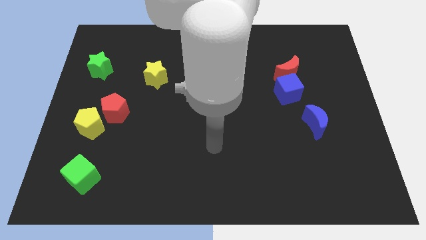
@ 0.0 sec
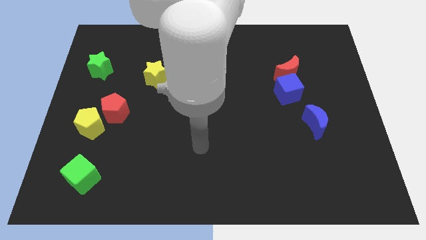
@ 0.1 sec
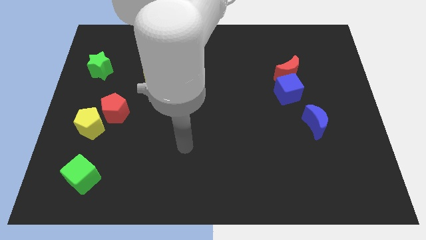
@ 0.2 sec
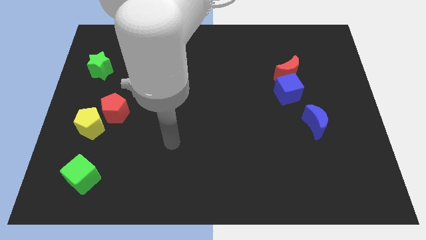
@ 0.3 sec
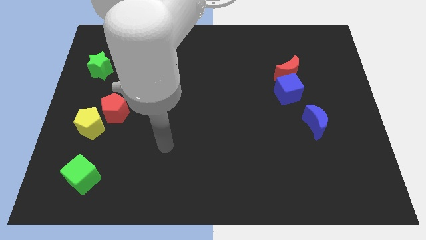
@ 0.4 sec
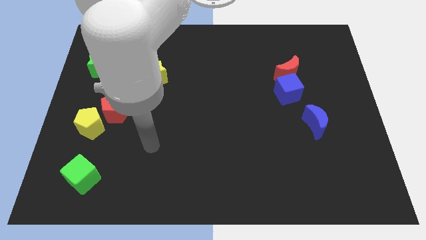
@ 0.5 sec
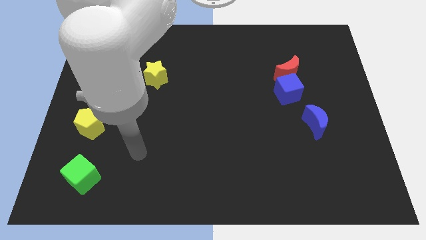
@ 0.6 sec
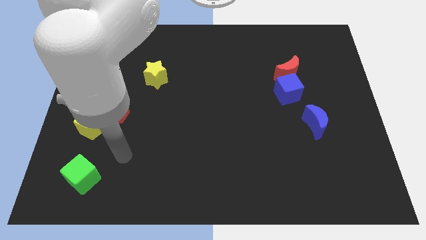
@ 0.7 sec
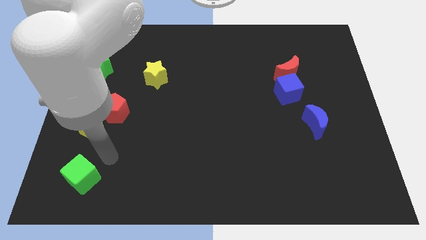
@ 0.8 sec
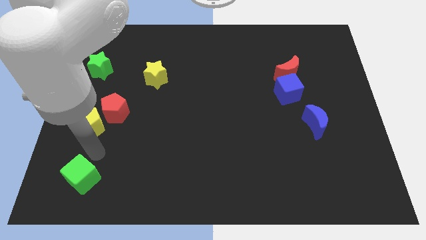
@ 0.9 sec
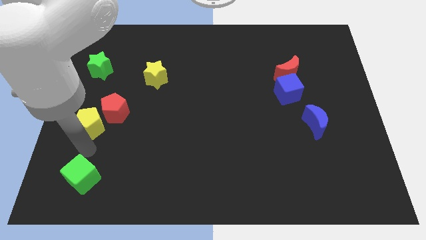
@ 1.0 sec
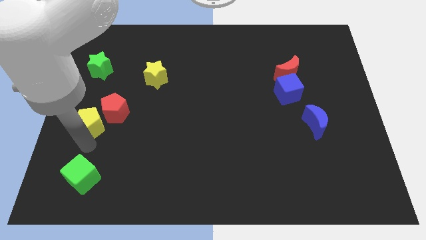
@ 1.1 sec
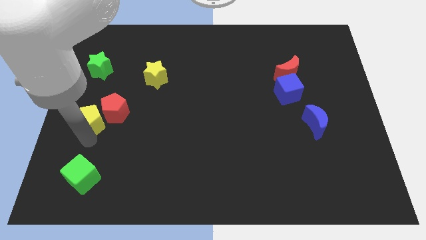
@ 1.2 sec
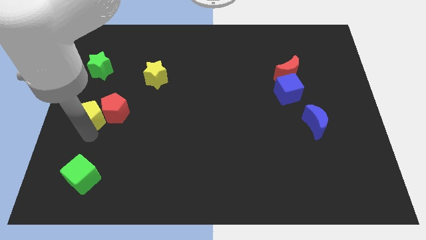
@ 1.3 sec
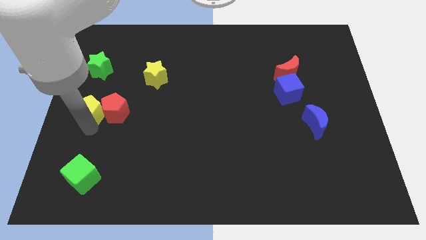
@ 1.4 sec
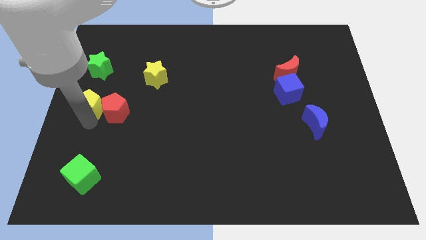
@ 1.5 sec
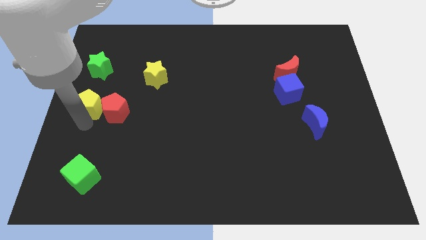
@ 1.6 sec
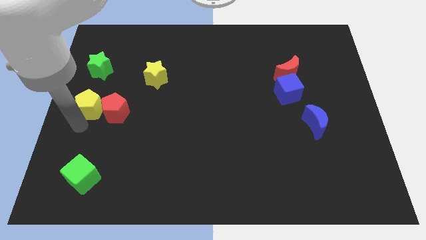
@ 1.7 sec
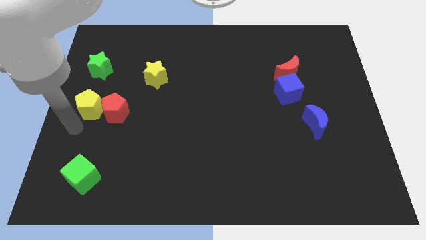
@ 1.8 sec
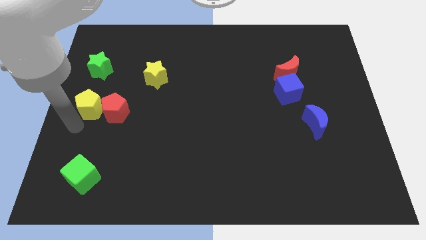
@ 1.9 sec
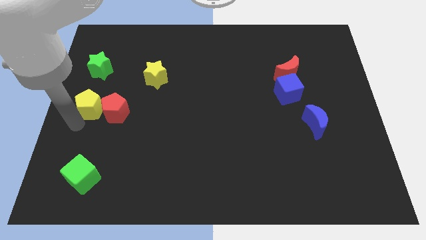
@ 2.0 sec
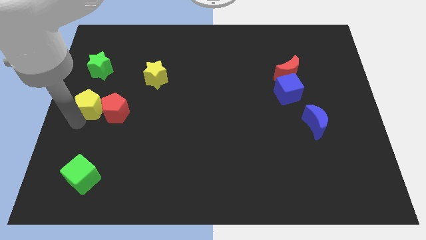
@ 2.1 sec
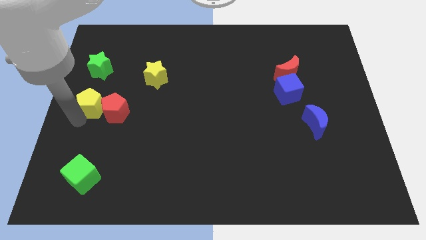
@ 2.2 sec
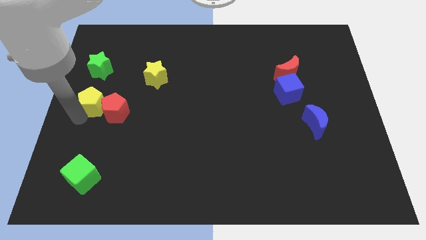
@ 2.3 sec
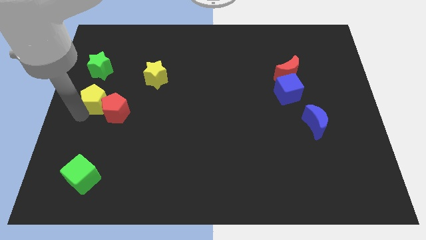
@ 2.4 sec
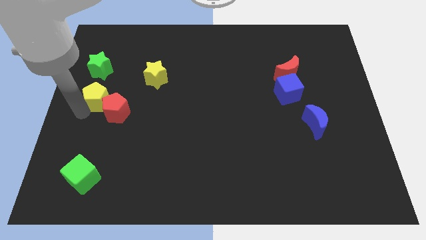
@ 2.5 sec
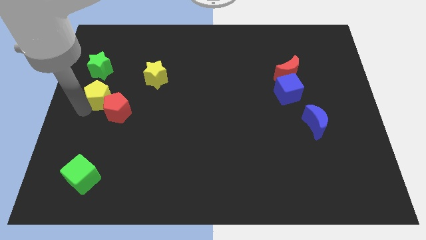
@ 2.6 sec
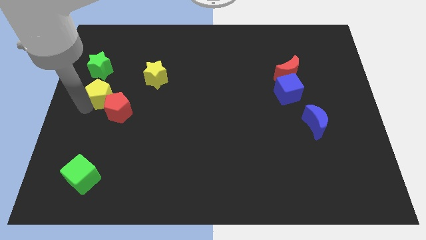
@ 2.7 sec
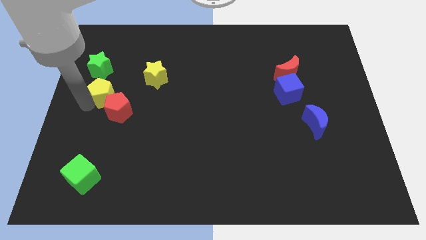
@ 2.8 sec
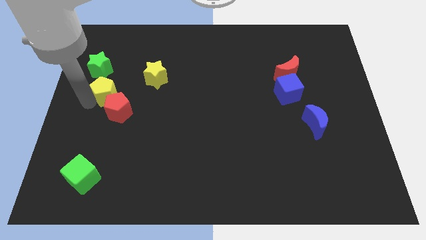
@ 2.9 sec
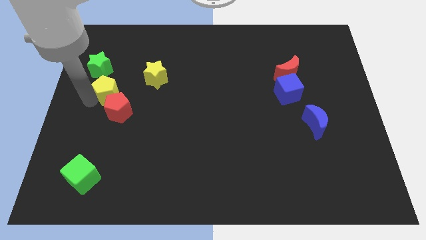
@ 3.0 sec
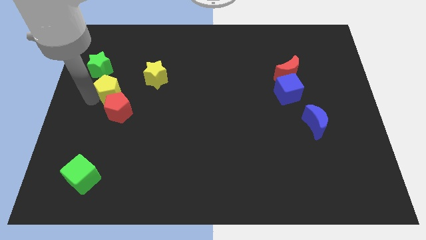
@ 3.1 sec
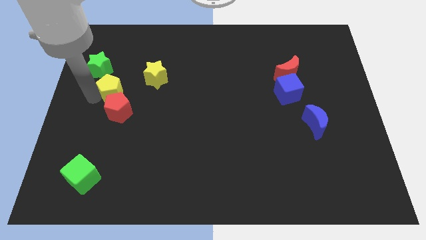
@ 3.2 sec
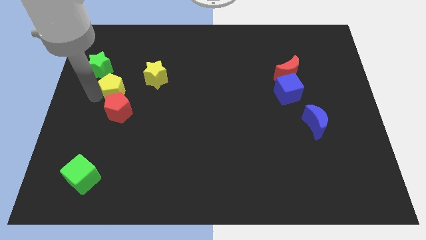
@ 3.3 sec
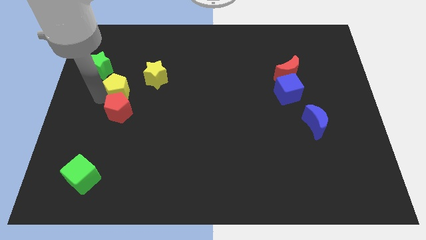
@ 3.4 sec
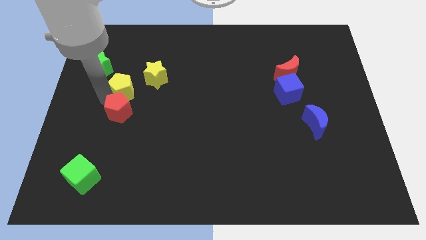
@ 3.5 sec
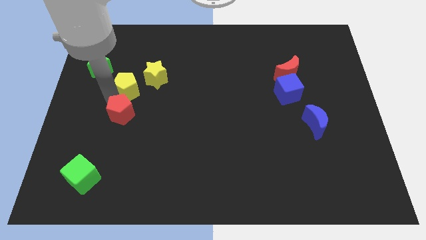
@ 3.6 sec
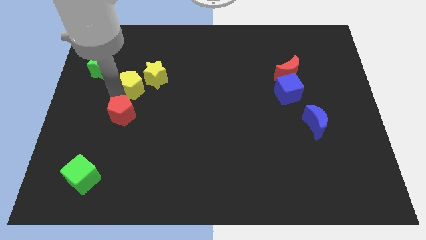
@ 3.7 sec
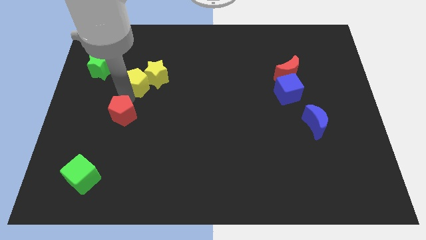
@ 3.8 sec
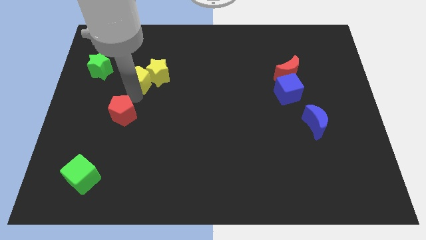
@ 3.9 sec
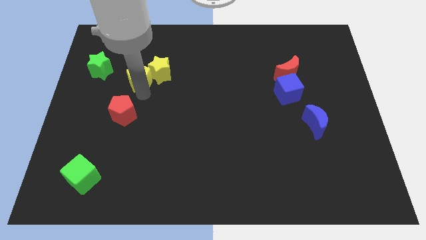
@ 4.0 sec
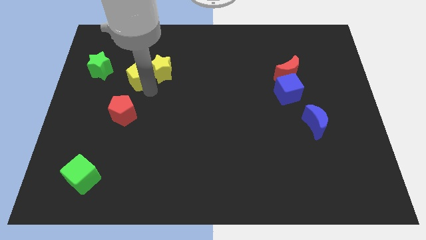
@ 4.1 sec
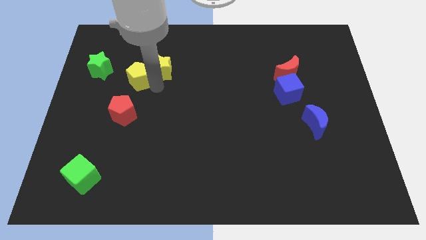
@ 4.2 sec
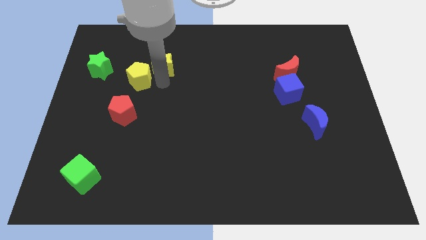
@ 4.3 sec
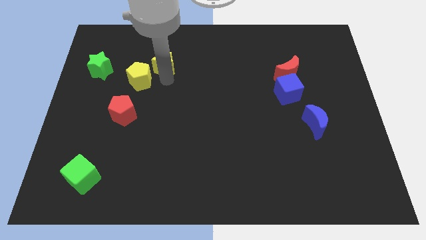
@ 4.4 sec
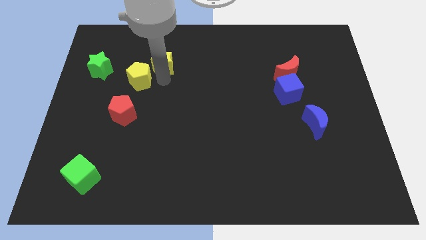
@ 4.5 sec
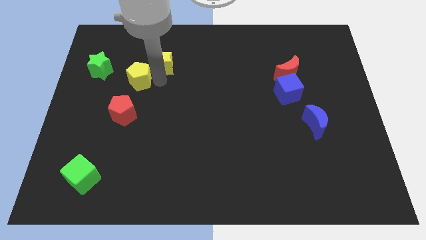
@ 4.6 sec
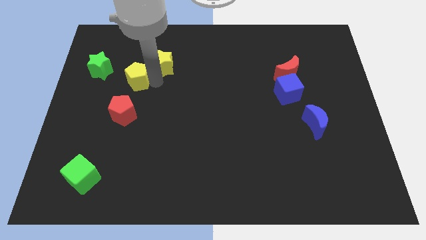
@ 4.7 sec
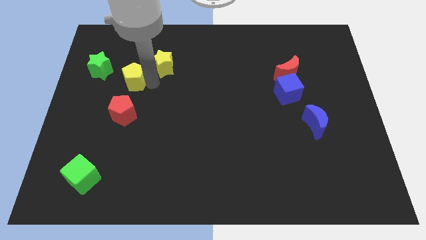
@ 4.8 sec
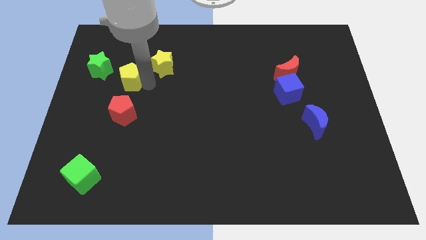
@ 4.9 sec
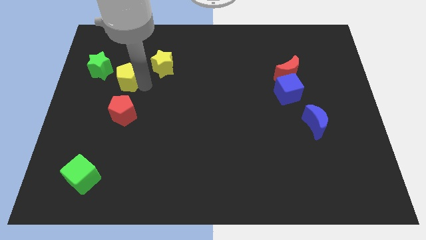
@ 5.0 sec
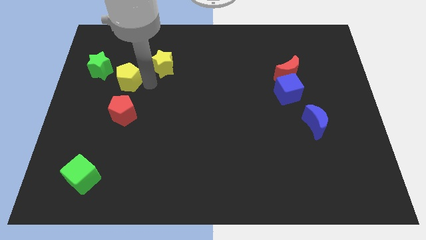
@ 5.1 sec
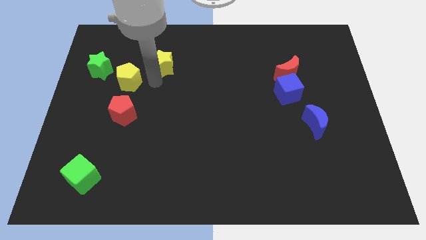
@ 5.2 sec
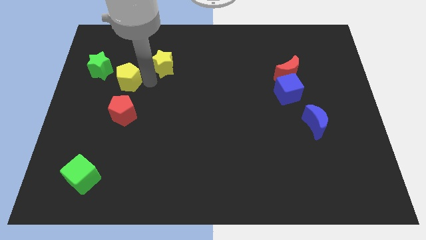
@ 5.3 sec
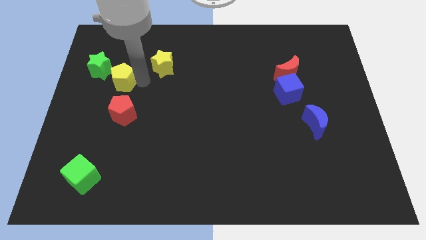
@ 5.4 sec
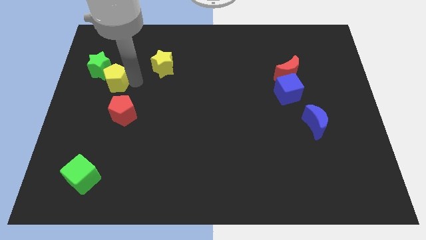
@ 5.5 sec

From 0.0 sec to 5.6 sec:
move the yellow pentagon close to the green star

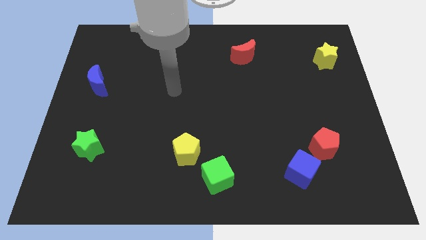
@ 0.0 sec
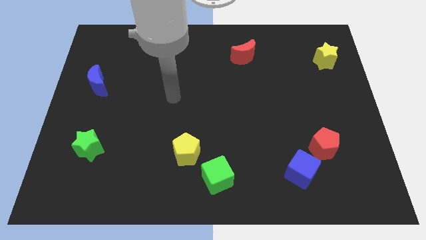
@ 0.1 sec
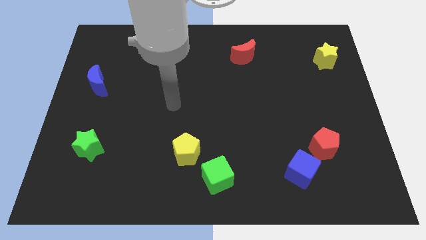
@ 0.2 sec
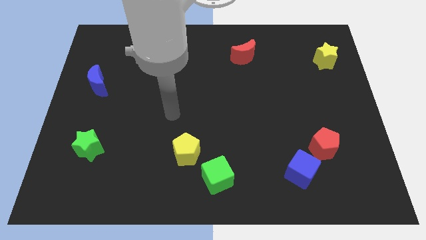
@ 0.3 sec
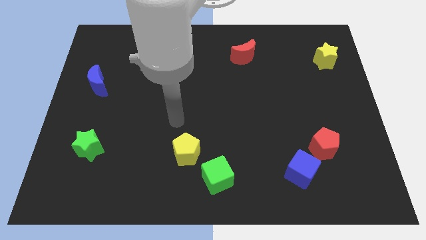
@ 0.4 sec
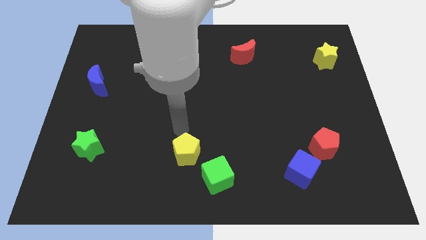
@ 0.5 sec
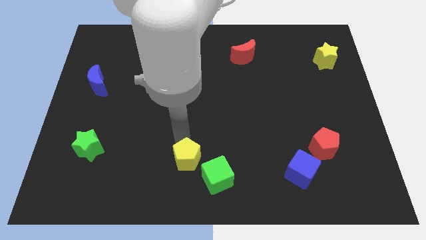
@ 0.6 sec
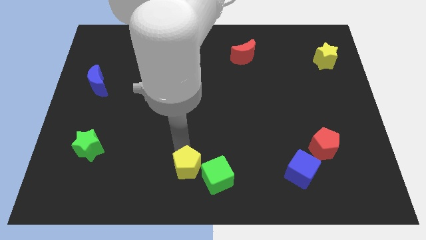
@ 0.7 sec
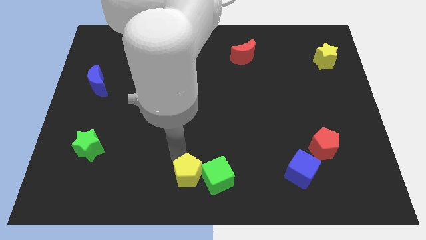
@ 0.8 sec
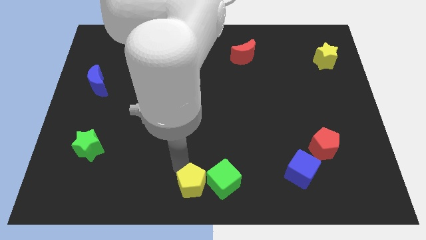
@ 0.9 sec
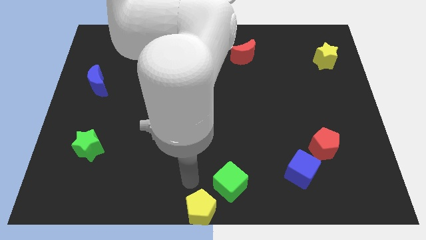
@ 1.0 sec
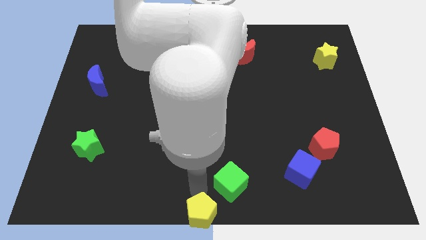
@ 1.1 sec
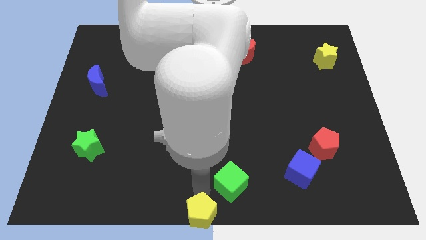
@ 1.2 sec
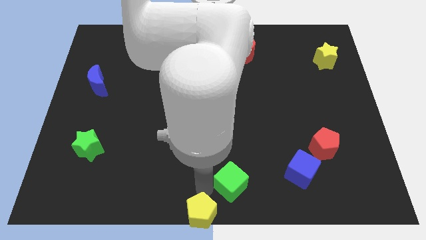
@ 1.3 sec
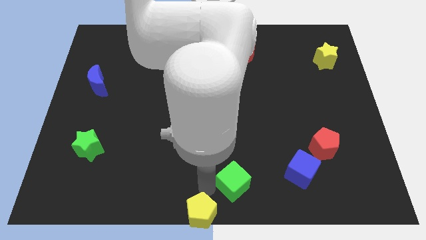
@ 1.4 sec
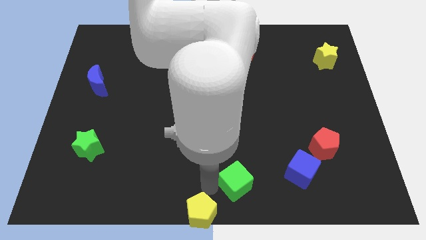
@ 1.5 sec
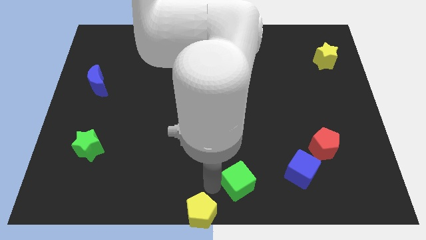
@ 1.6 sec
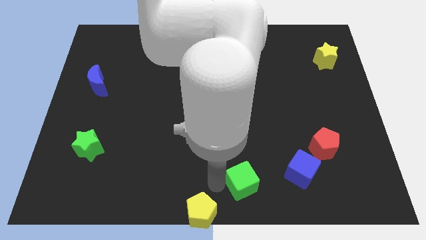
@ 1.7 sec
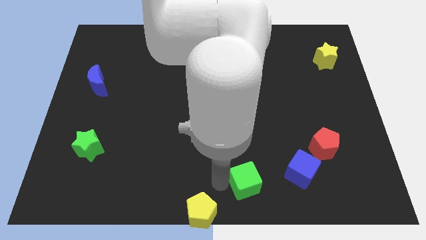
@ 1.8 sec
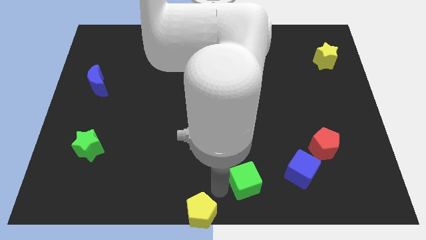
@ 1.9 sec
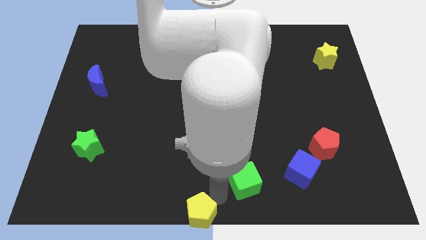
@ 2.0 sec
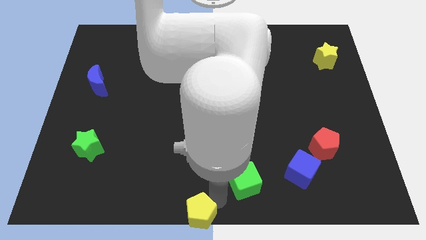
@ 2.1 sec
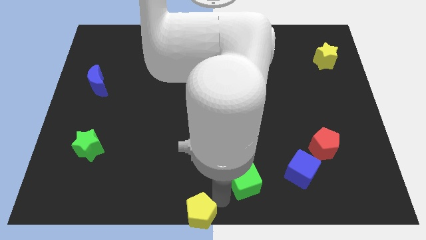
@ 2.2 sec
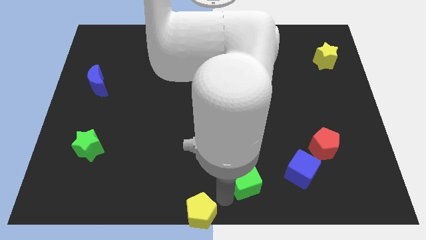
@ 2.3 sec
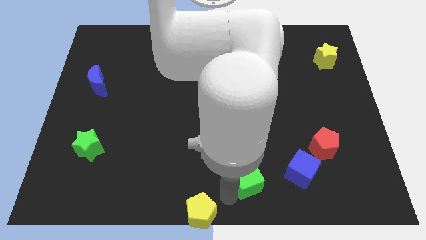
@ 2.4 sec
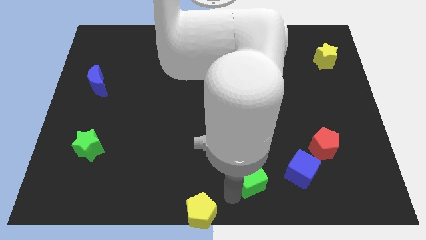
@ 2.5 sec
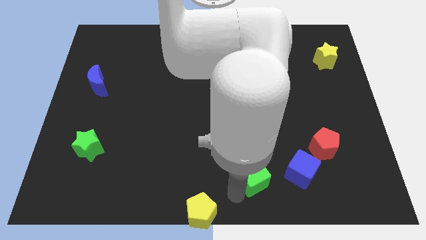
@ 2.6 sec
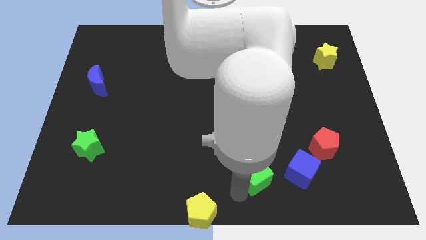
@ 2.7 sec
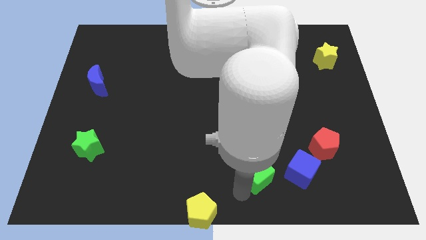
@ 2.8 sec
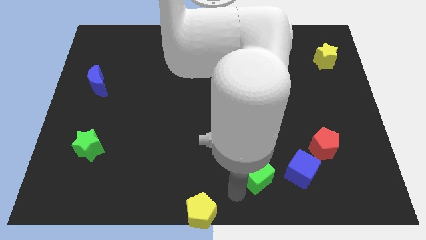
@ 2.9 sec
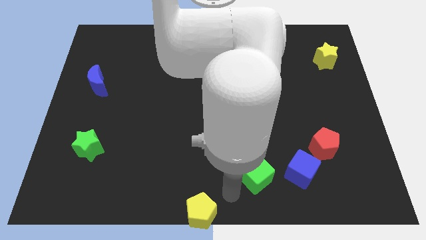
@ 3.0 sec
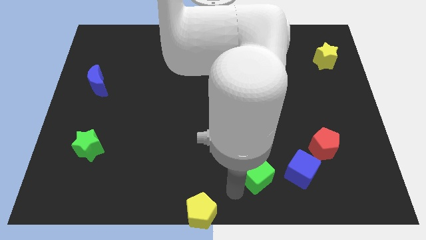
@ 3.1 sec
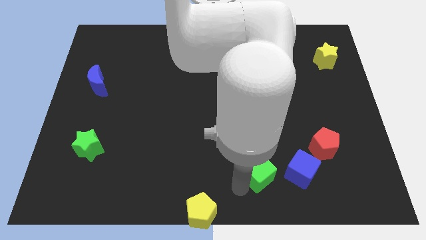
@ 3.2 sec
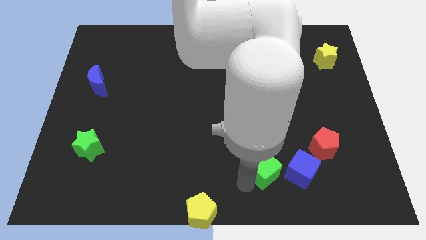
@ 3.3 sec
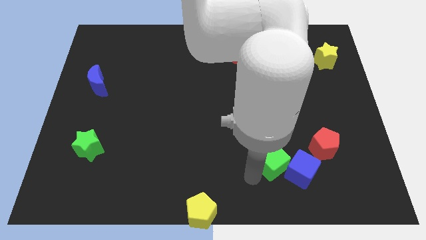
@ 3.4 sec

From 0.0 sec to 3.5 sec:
put the green cube close to the blue cube
